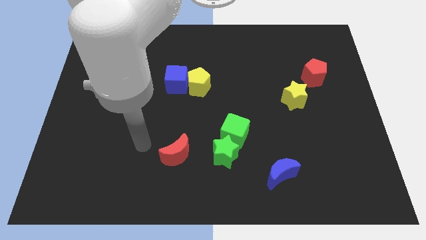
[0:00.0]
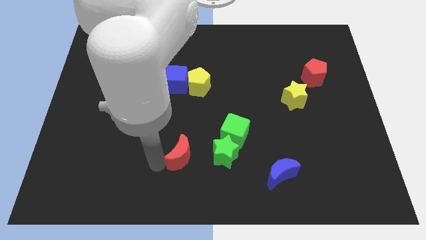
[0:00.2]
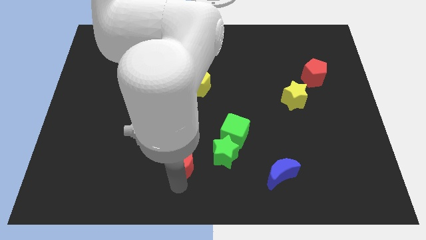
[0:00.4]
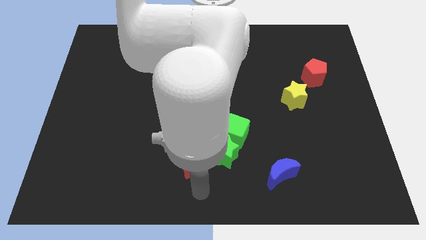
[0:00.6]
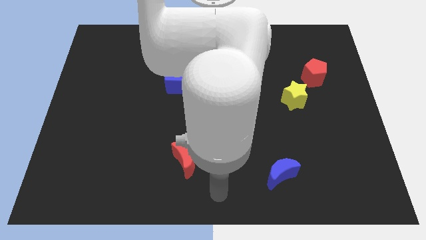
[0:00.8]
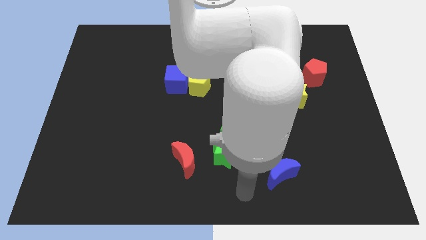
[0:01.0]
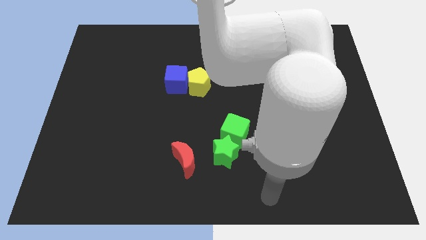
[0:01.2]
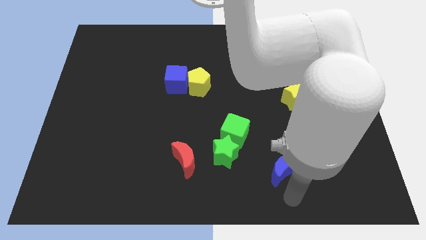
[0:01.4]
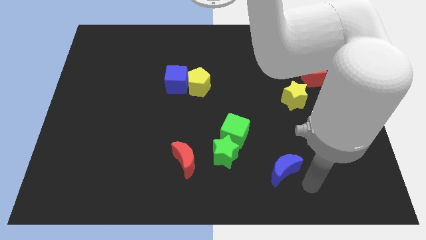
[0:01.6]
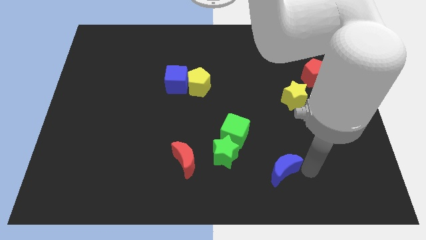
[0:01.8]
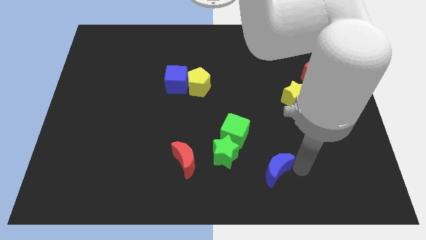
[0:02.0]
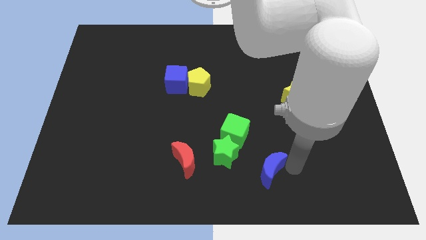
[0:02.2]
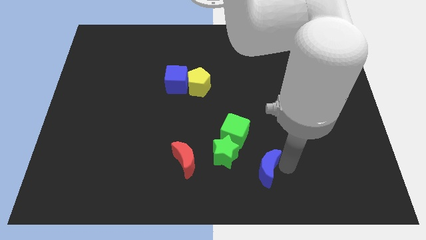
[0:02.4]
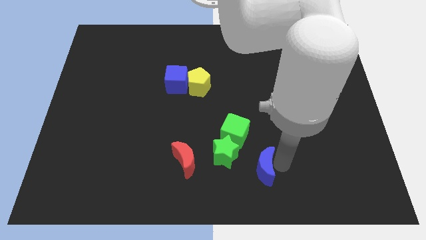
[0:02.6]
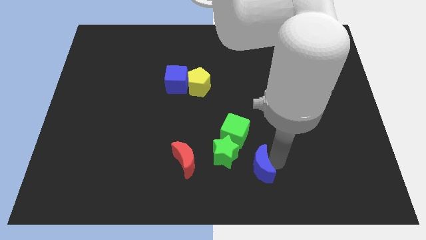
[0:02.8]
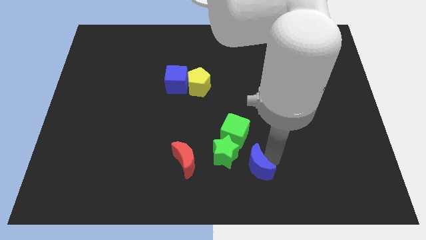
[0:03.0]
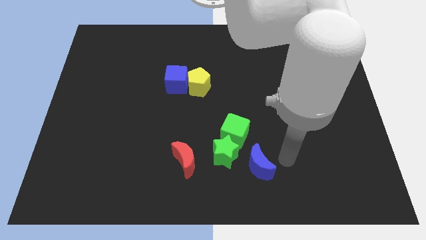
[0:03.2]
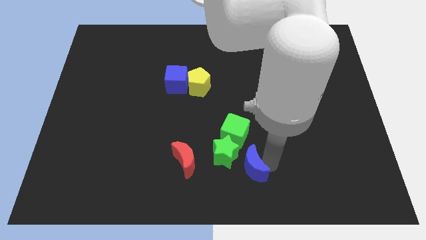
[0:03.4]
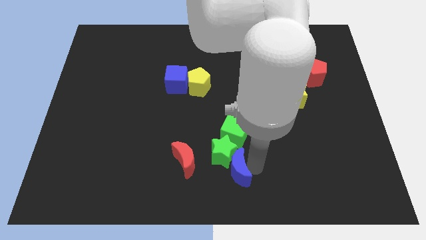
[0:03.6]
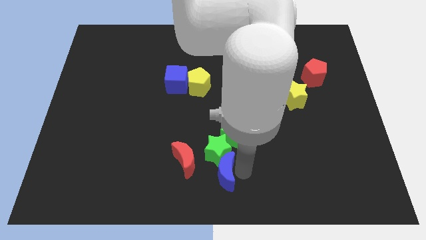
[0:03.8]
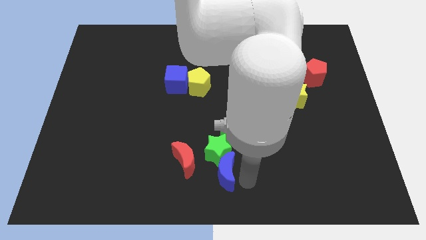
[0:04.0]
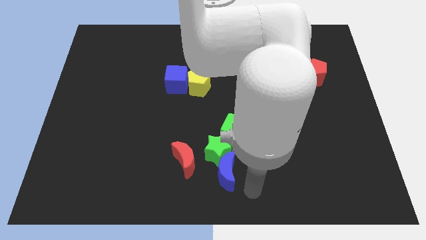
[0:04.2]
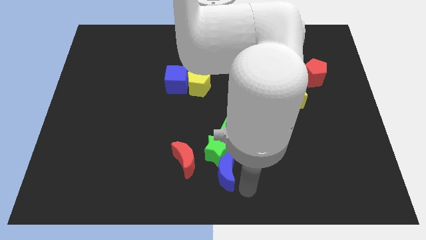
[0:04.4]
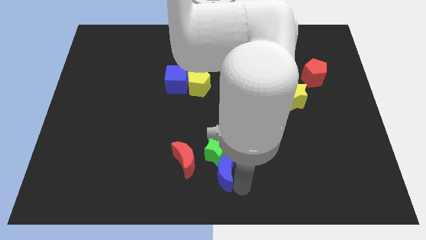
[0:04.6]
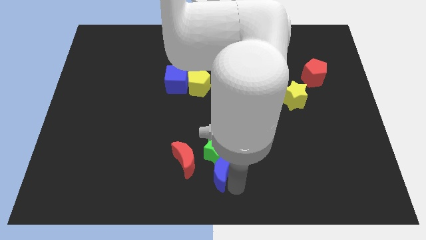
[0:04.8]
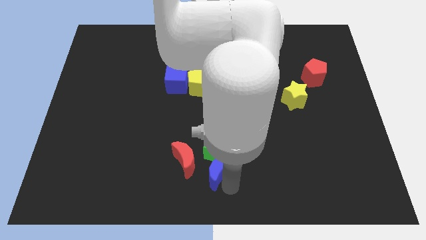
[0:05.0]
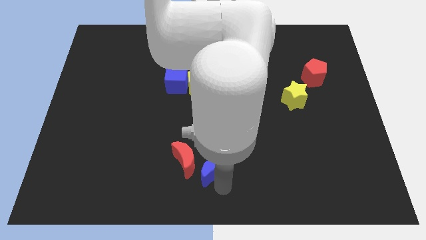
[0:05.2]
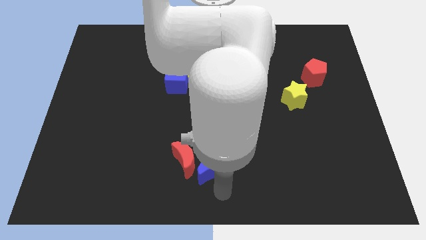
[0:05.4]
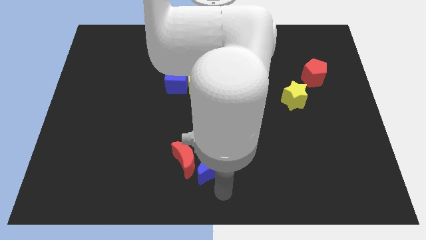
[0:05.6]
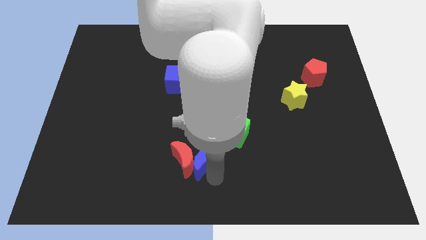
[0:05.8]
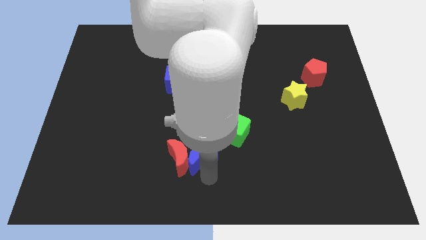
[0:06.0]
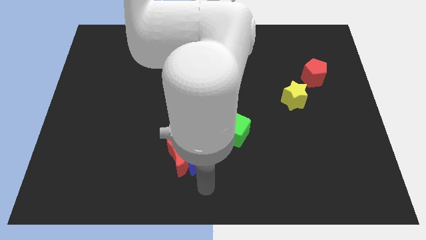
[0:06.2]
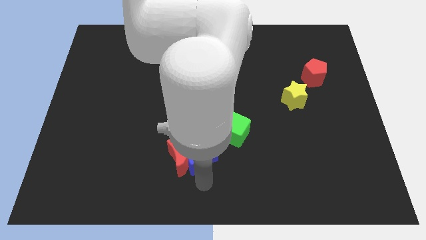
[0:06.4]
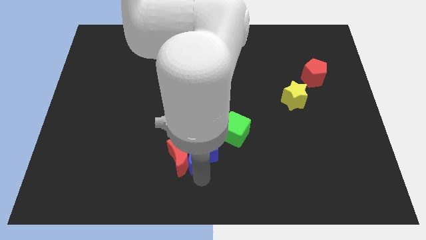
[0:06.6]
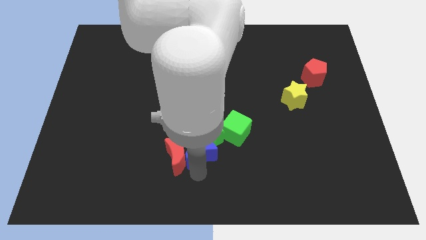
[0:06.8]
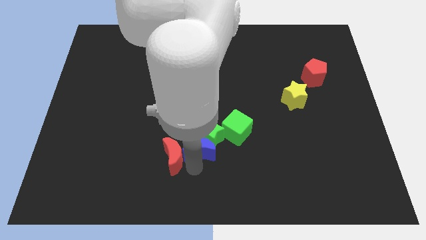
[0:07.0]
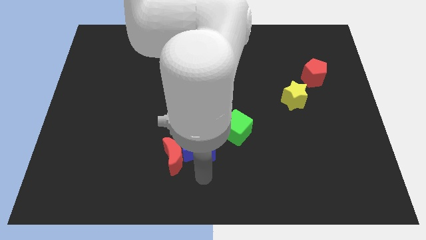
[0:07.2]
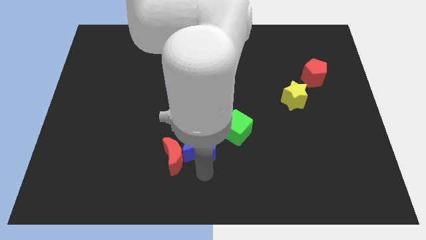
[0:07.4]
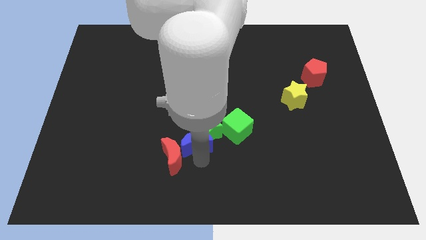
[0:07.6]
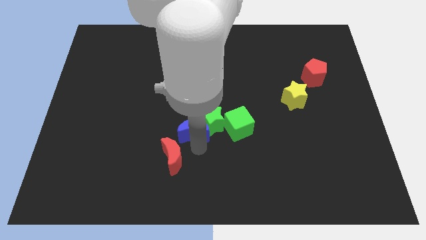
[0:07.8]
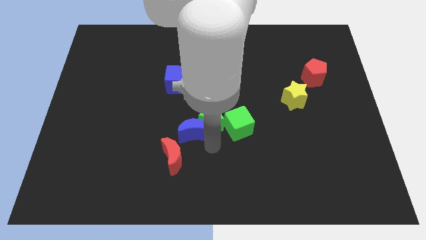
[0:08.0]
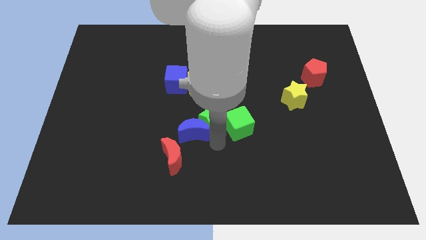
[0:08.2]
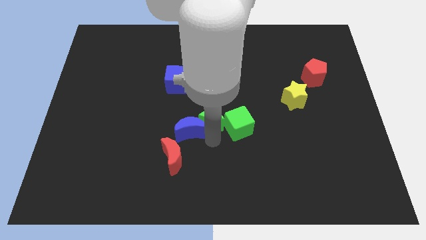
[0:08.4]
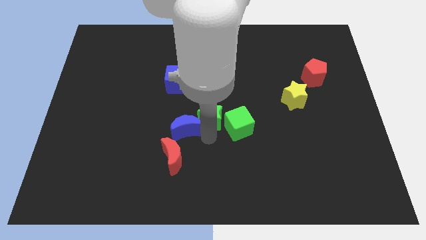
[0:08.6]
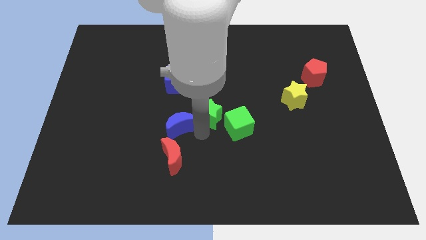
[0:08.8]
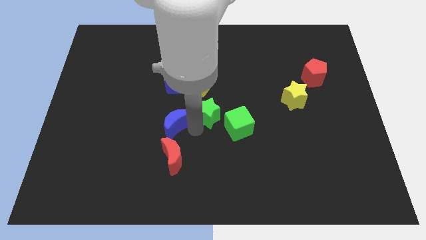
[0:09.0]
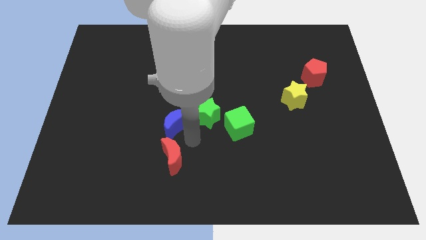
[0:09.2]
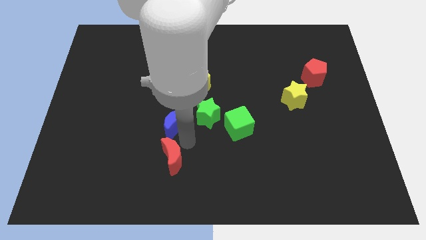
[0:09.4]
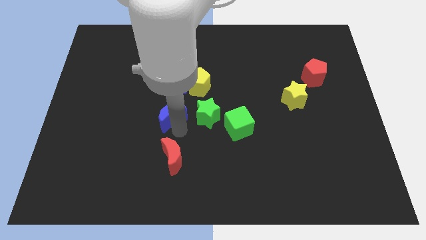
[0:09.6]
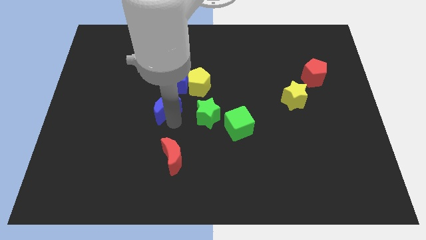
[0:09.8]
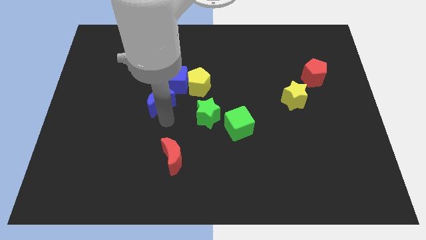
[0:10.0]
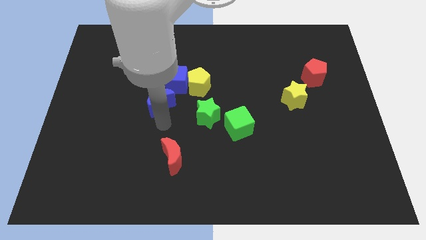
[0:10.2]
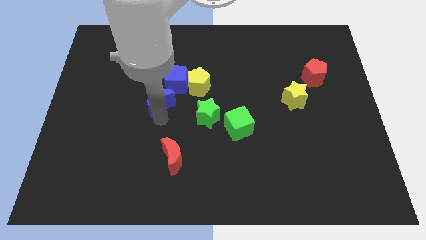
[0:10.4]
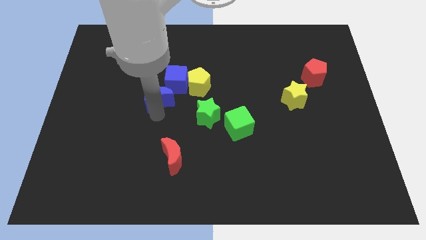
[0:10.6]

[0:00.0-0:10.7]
slide the blue moon just left of the yellow pentagon

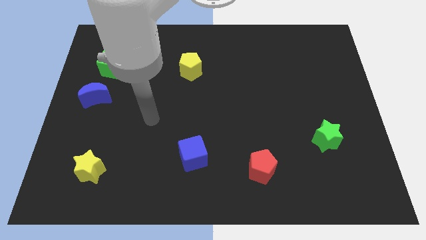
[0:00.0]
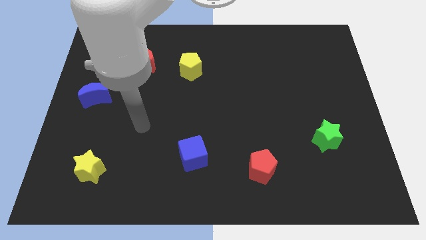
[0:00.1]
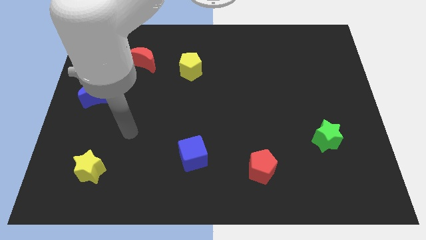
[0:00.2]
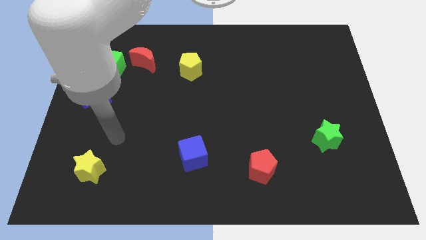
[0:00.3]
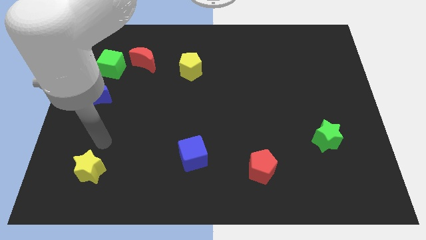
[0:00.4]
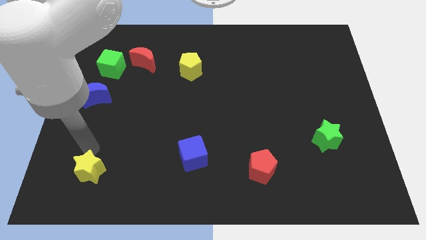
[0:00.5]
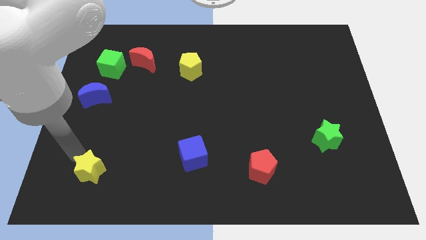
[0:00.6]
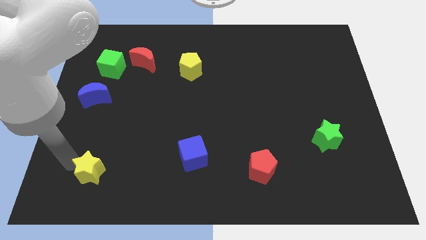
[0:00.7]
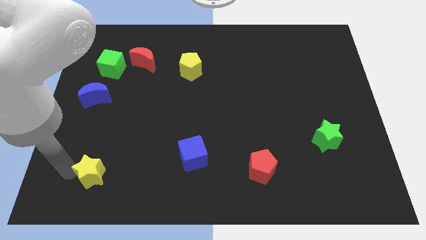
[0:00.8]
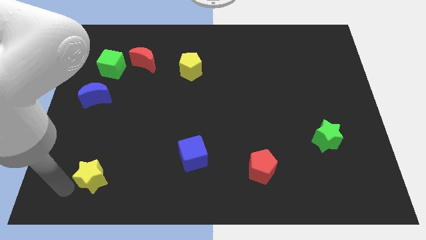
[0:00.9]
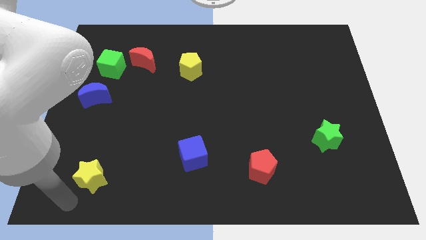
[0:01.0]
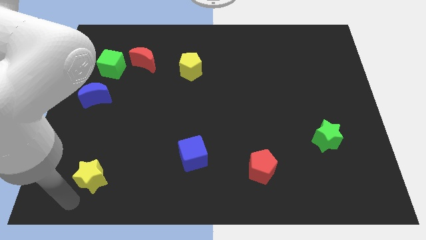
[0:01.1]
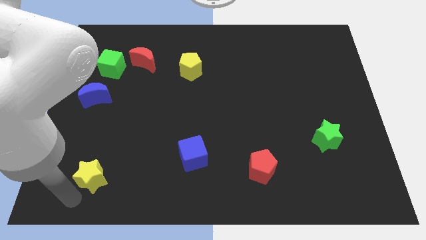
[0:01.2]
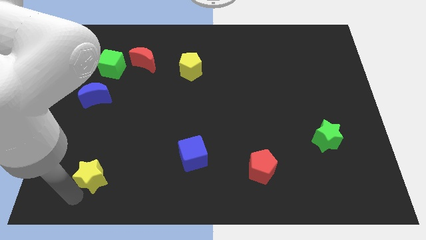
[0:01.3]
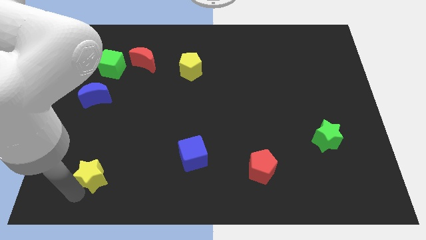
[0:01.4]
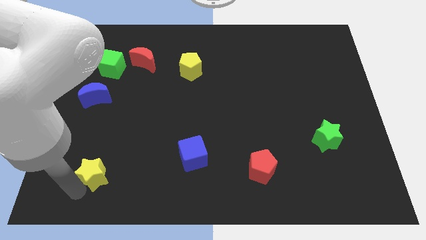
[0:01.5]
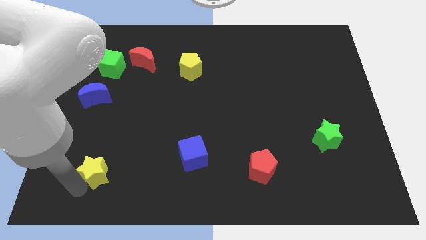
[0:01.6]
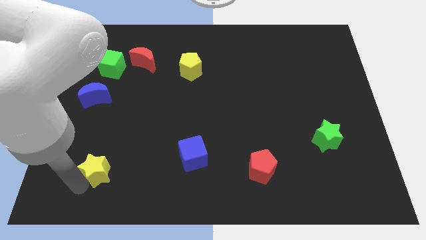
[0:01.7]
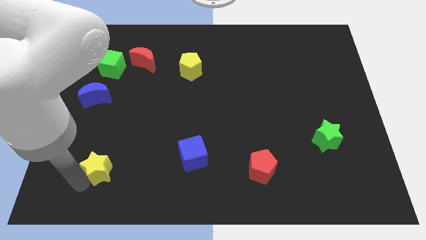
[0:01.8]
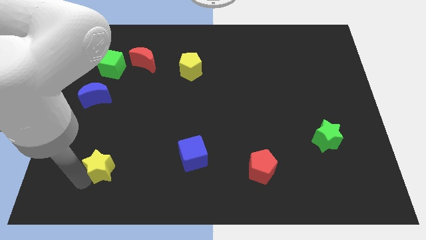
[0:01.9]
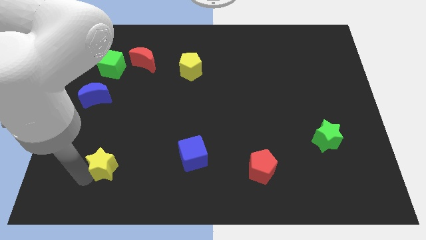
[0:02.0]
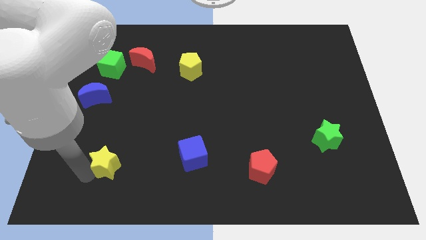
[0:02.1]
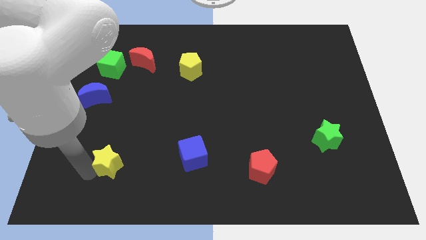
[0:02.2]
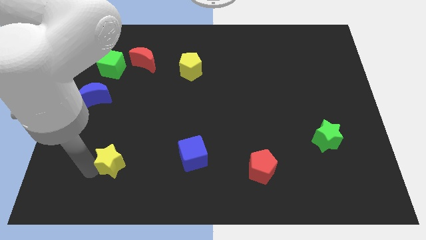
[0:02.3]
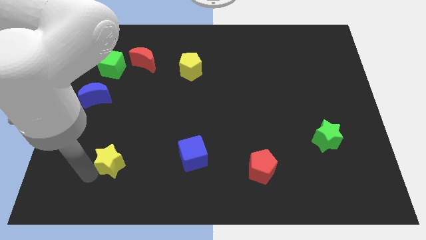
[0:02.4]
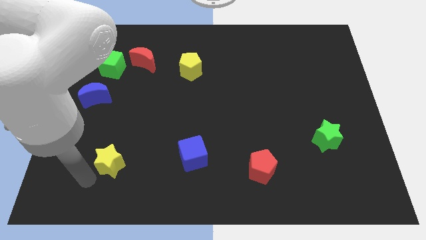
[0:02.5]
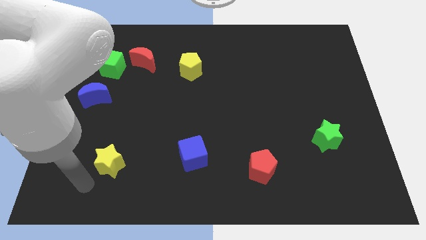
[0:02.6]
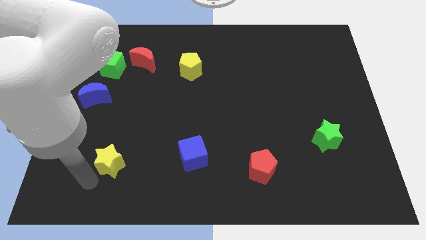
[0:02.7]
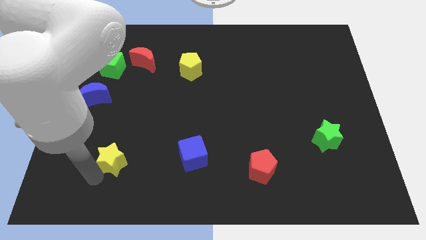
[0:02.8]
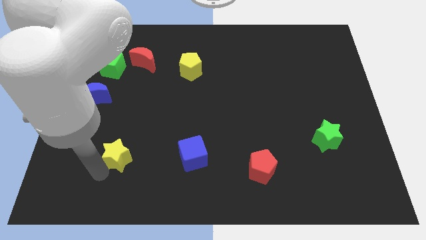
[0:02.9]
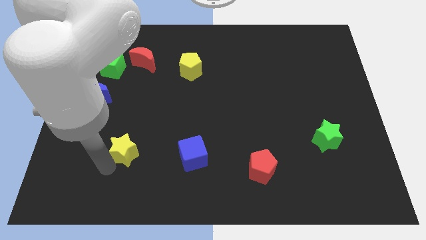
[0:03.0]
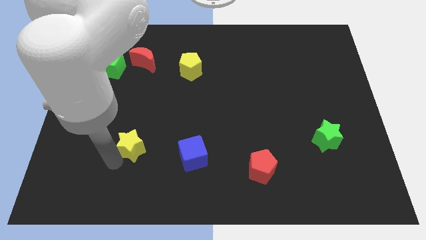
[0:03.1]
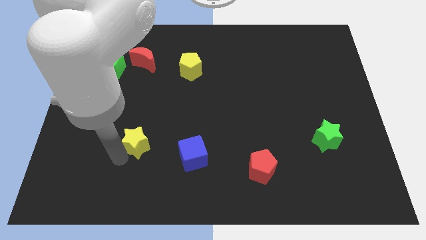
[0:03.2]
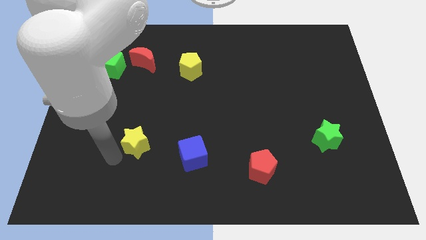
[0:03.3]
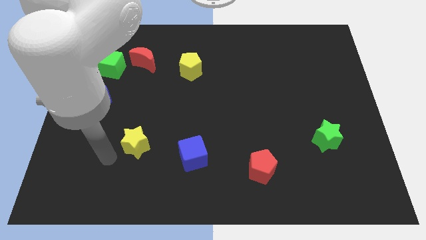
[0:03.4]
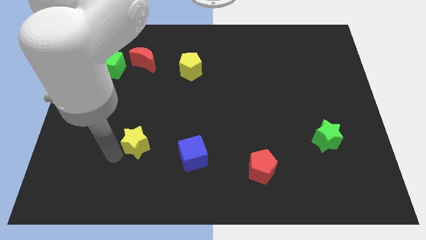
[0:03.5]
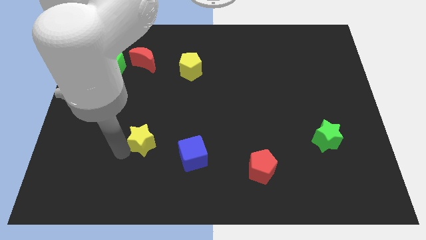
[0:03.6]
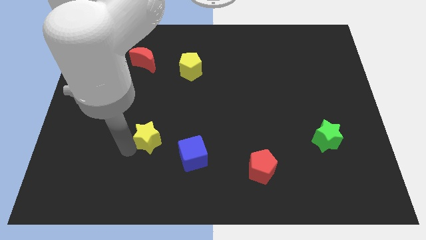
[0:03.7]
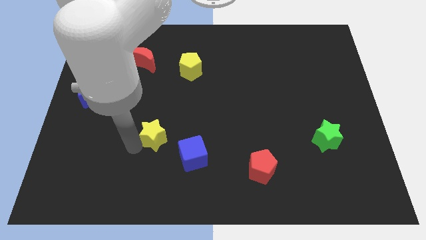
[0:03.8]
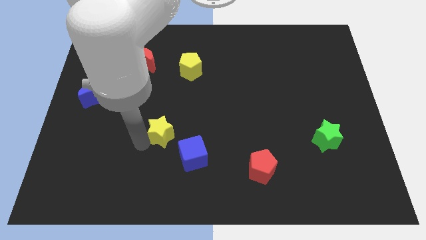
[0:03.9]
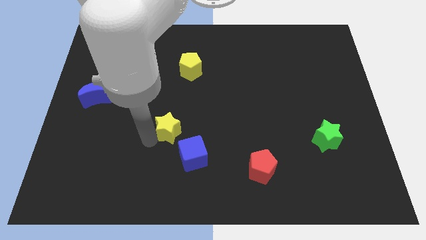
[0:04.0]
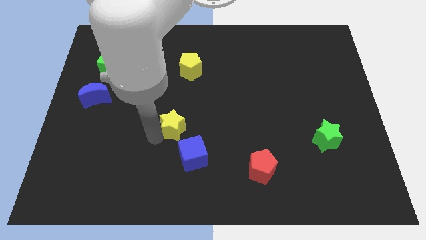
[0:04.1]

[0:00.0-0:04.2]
move the yellow star to the top of the blue cube
